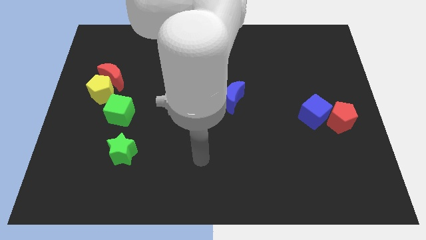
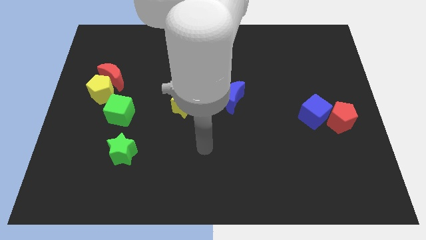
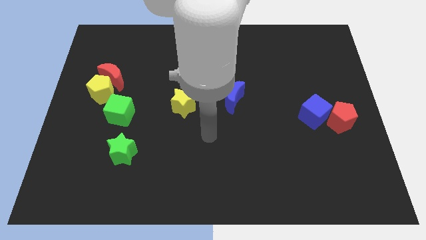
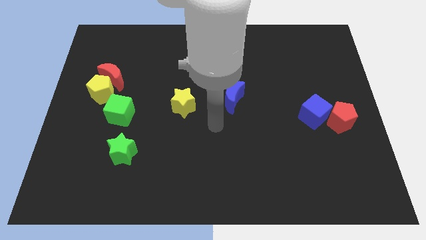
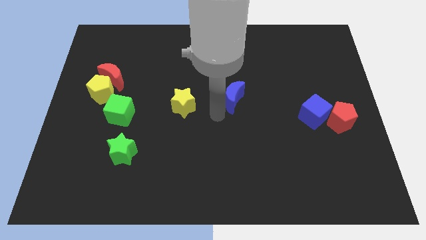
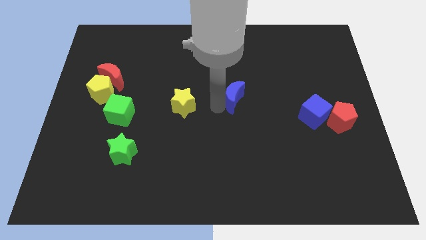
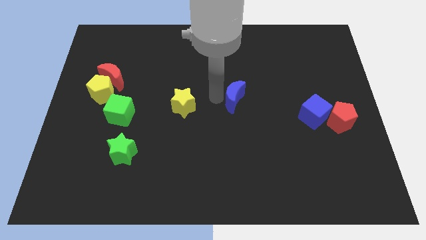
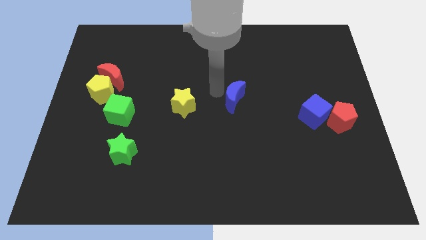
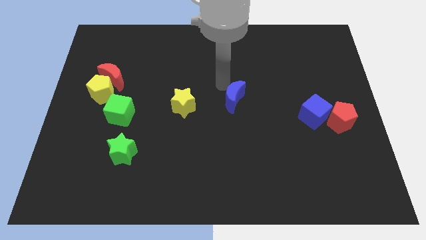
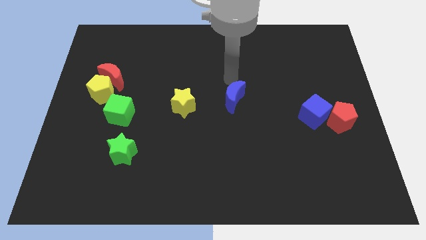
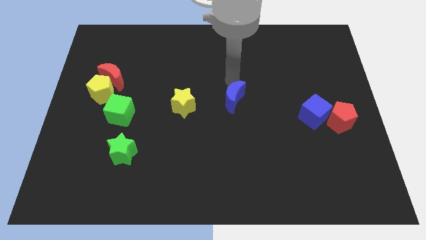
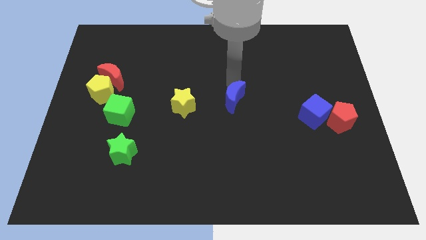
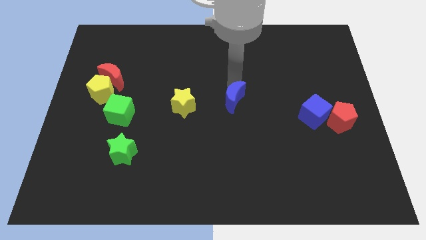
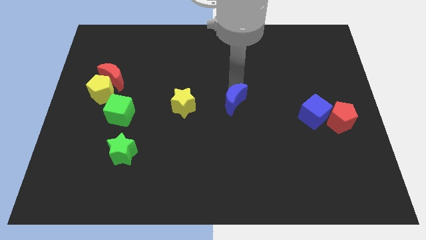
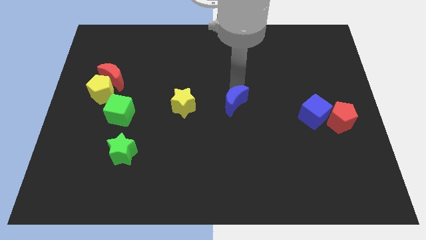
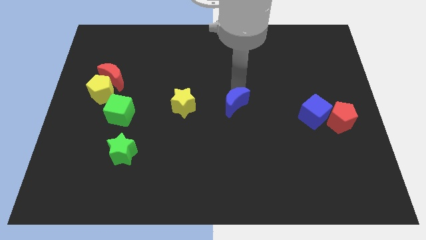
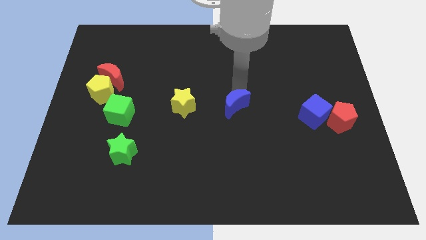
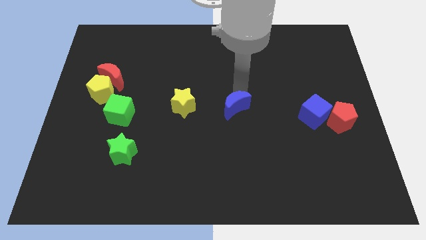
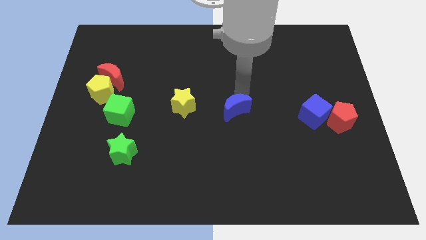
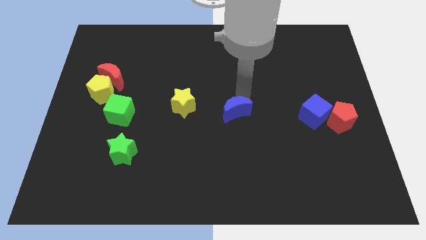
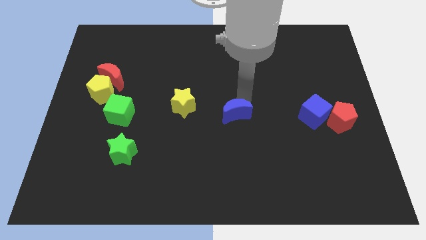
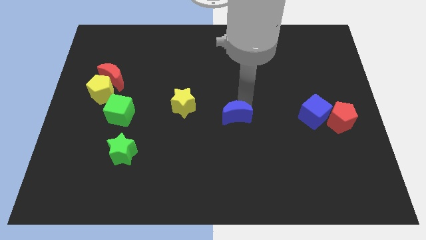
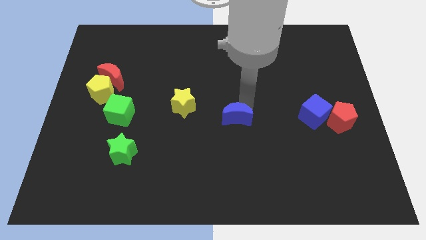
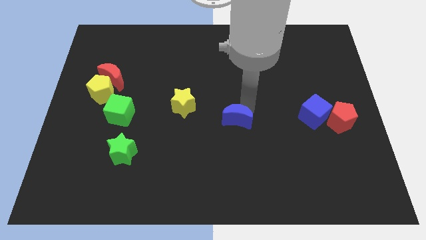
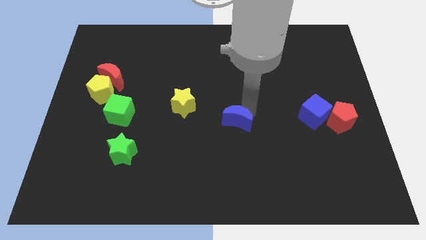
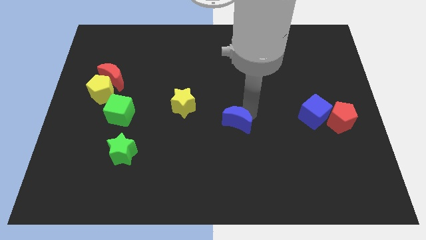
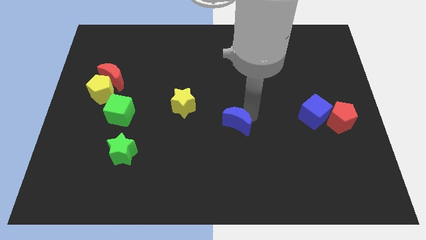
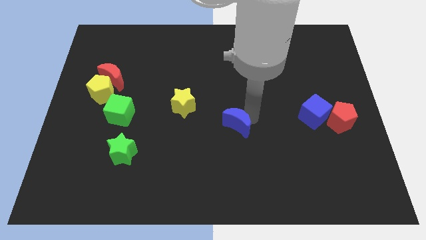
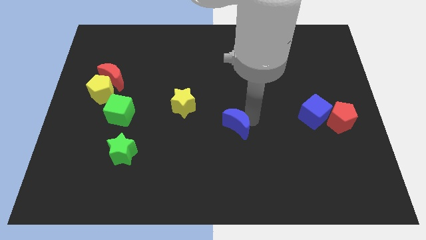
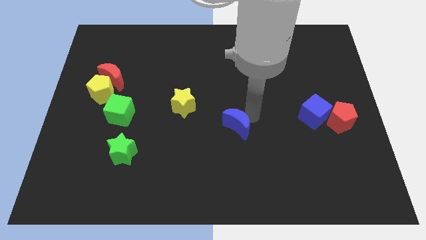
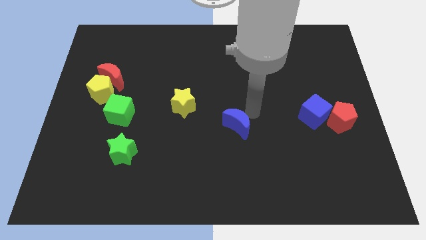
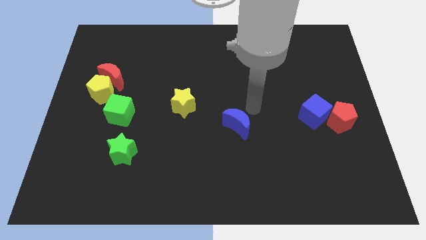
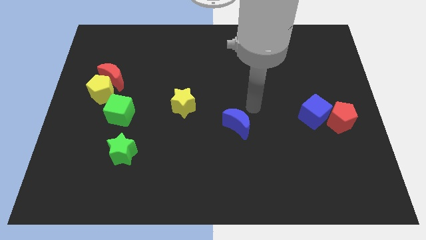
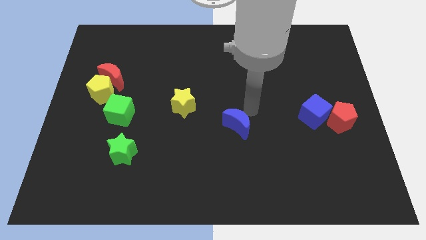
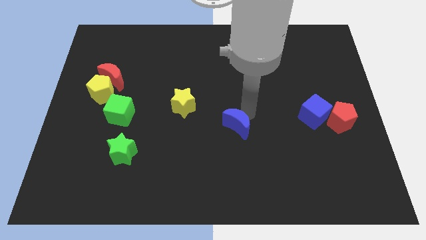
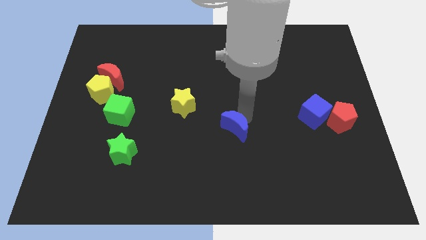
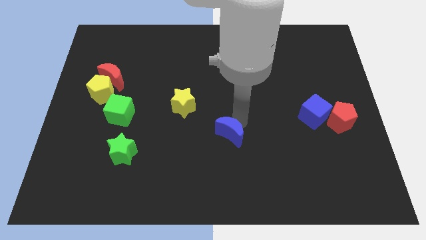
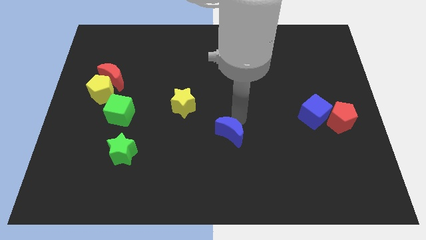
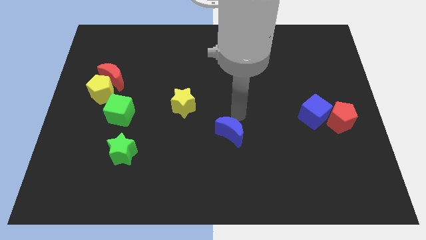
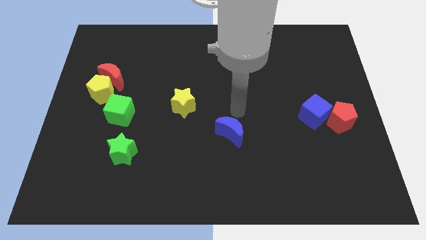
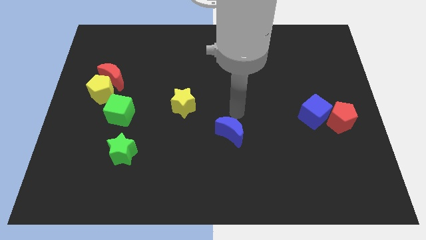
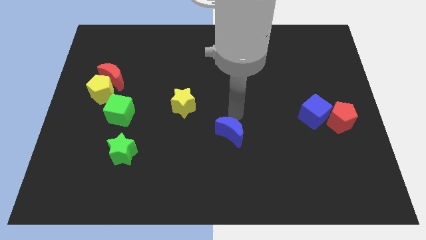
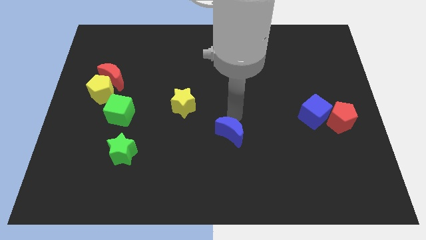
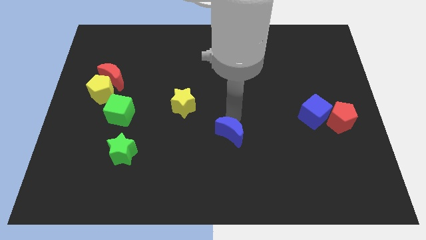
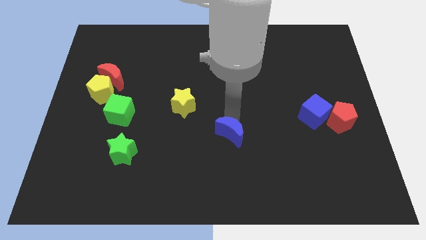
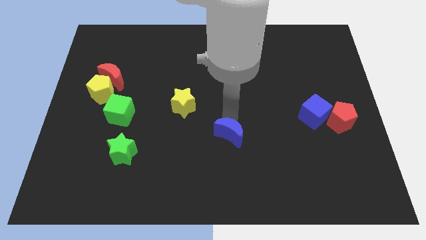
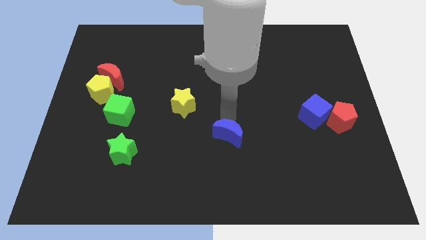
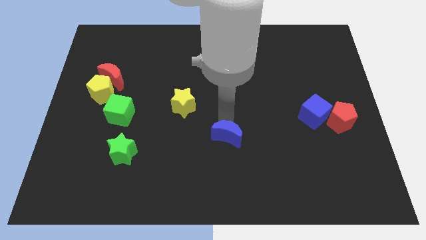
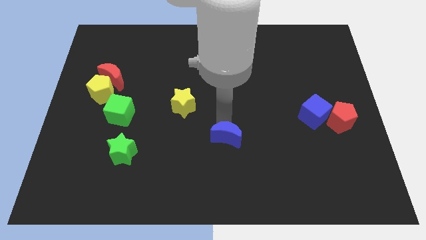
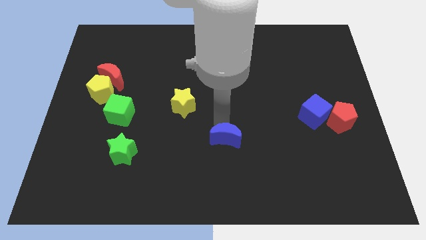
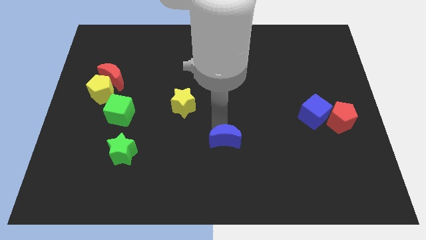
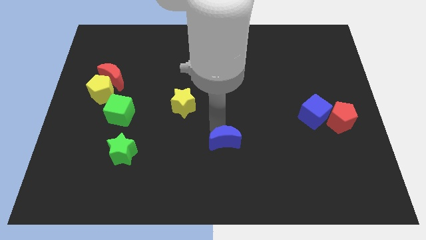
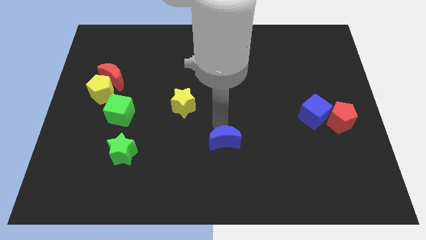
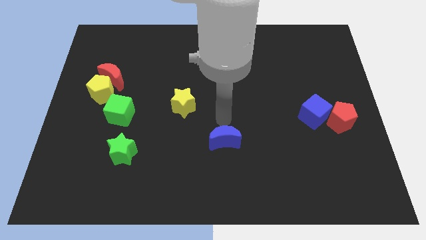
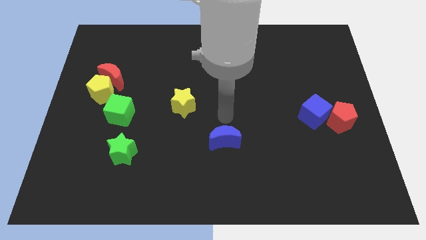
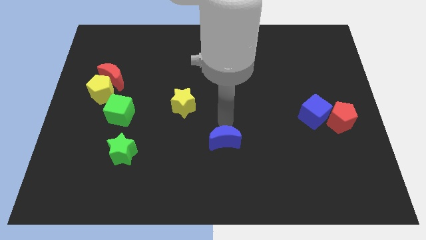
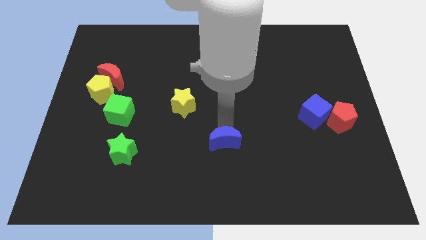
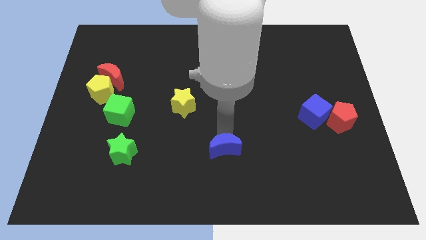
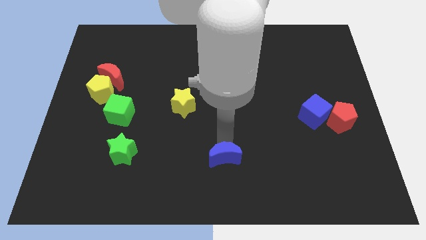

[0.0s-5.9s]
slide the blue moon to the bottom side

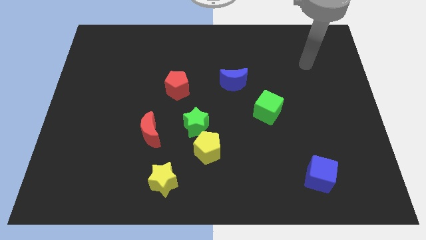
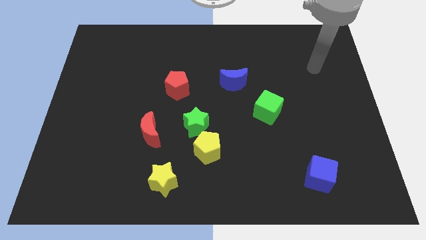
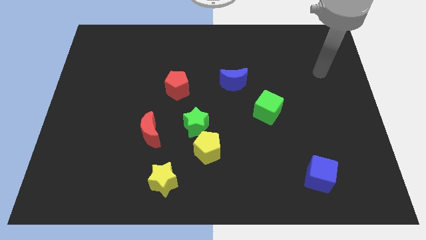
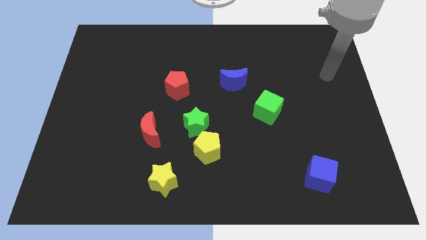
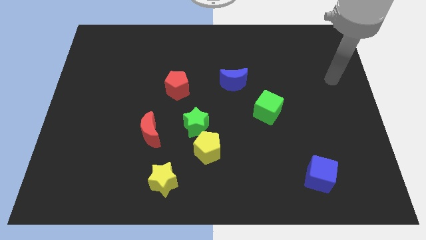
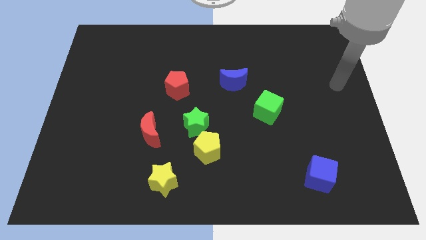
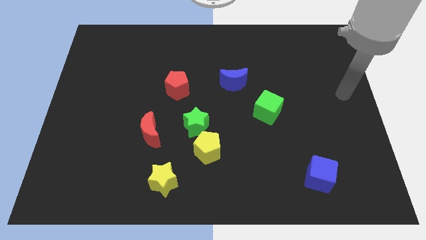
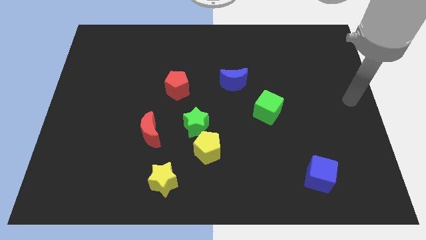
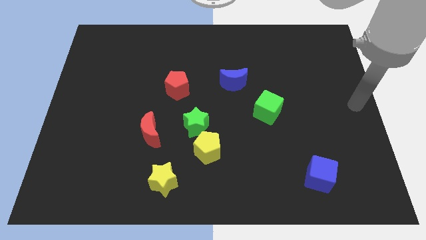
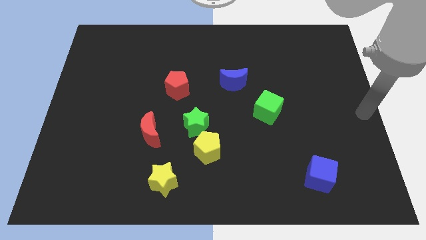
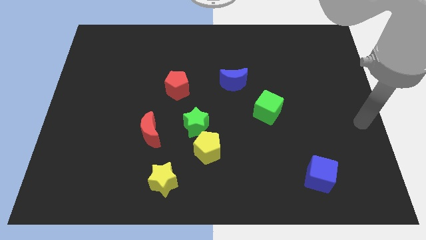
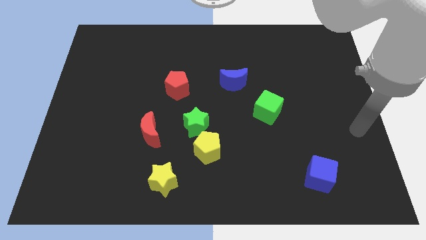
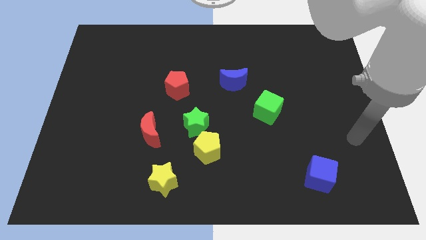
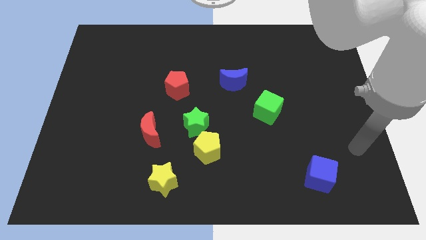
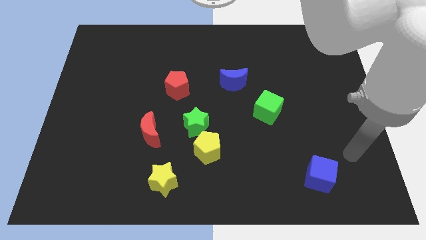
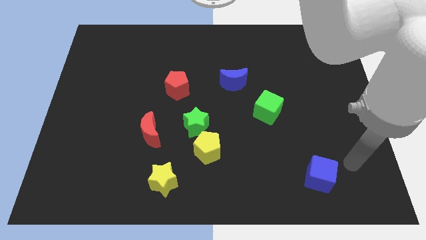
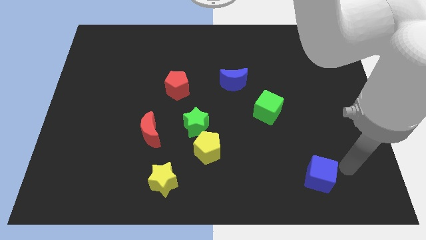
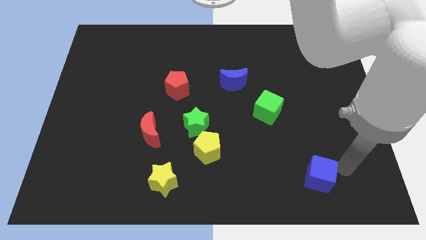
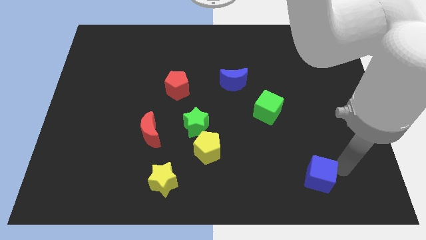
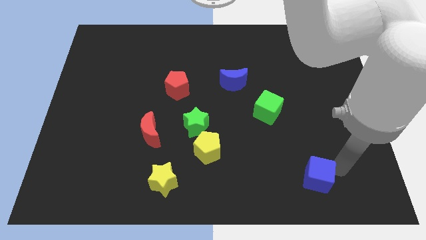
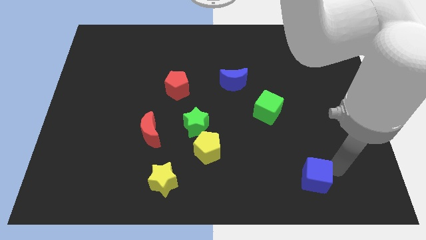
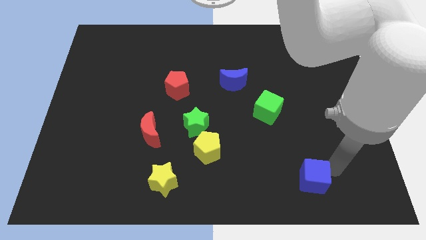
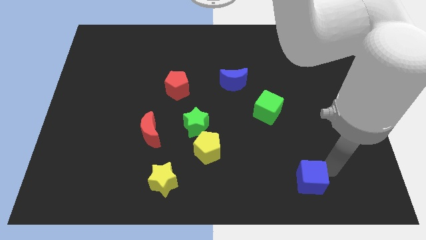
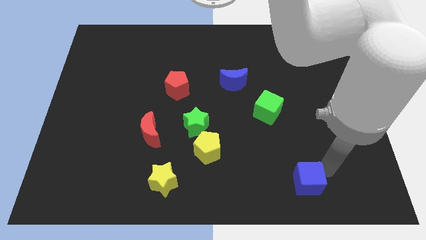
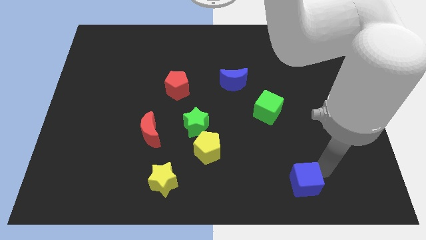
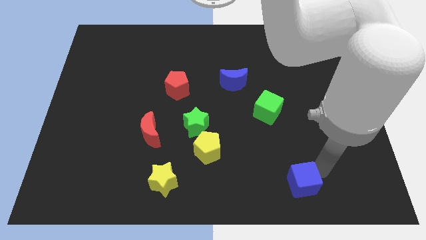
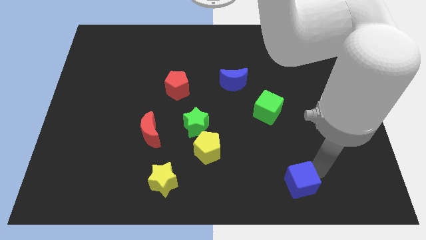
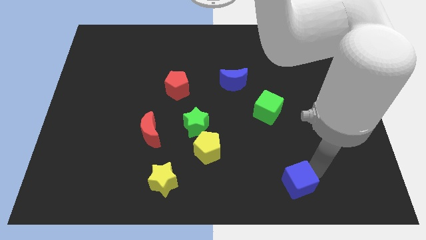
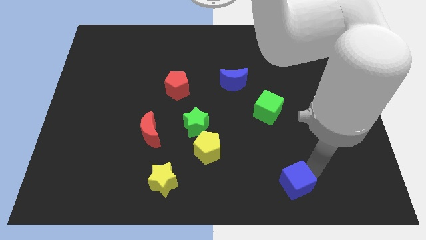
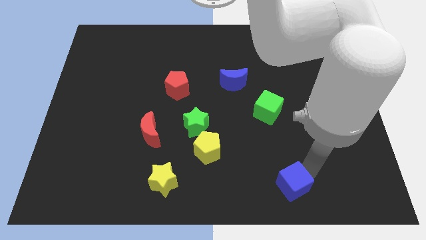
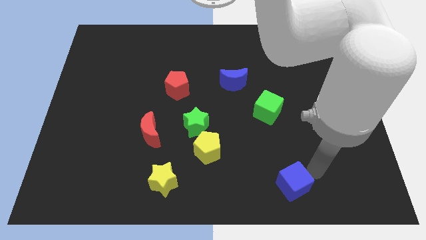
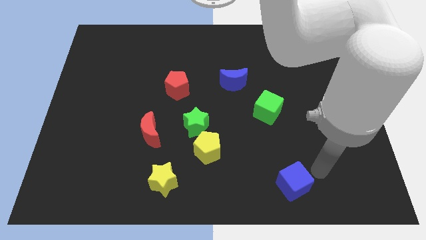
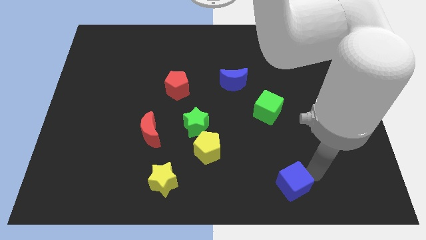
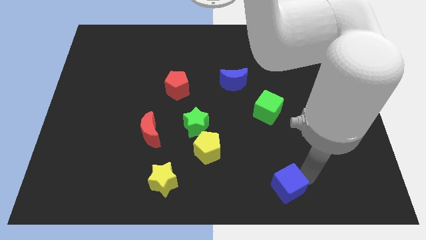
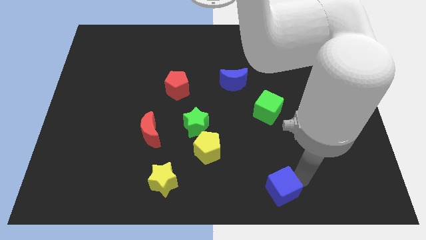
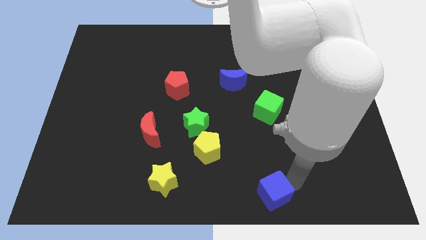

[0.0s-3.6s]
put the blue cube to the bottom
